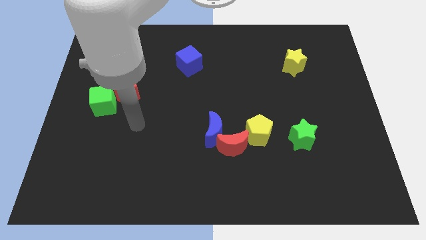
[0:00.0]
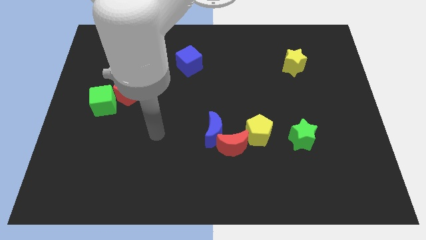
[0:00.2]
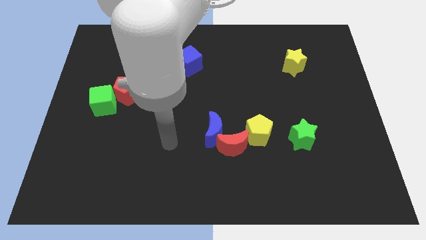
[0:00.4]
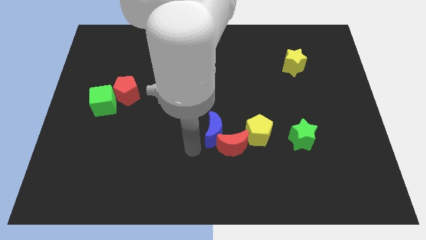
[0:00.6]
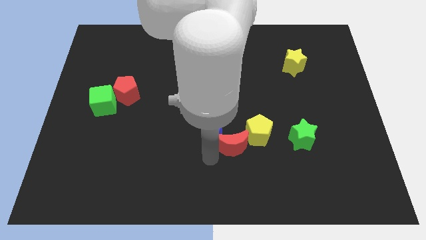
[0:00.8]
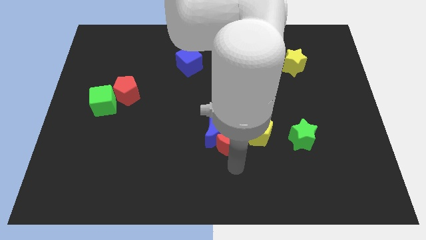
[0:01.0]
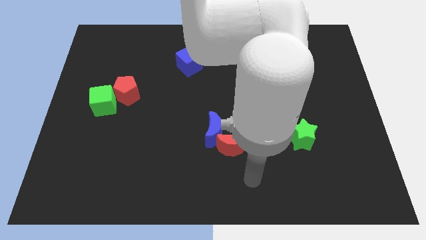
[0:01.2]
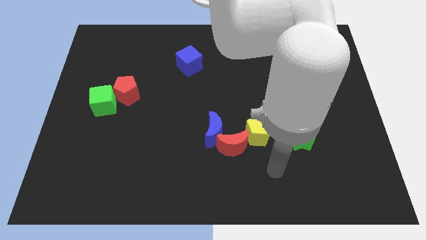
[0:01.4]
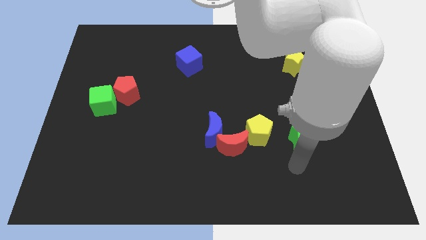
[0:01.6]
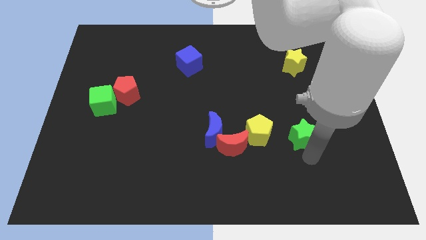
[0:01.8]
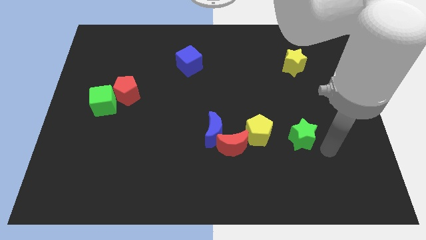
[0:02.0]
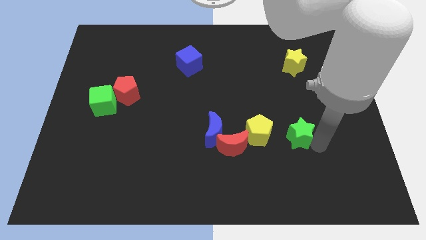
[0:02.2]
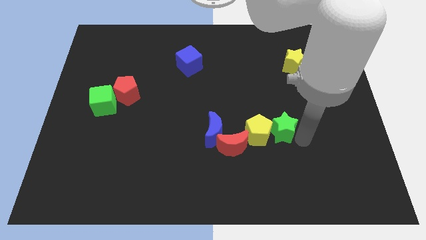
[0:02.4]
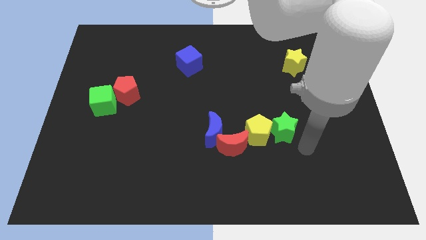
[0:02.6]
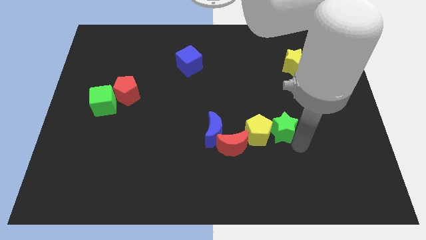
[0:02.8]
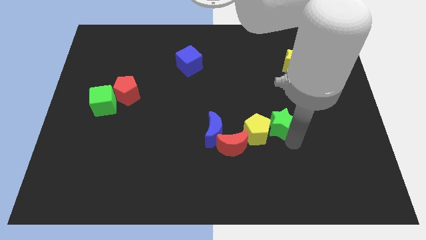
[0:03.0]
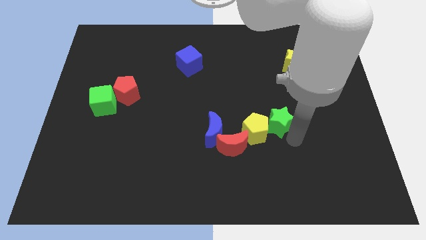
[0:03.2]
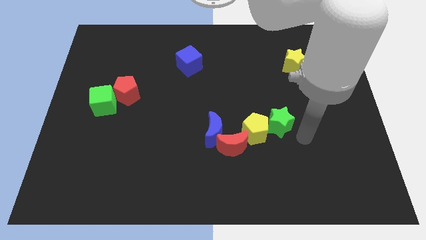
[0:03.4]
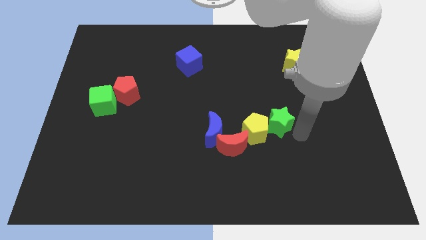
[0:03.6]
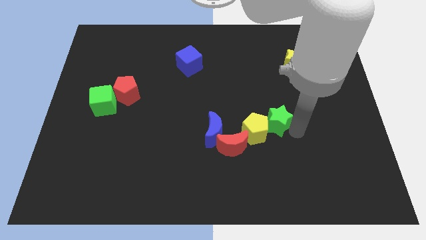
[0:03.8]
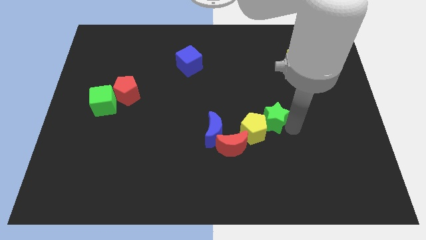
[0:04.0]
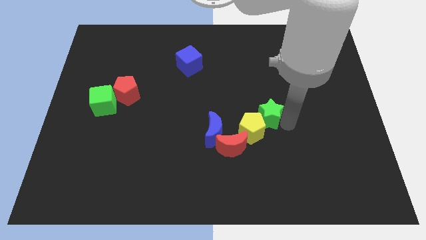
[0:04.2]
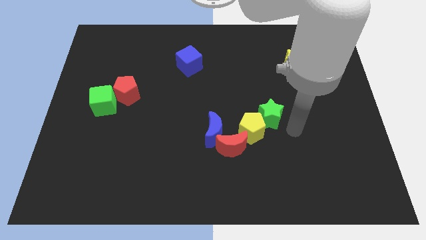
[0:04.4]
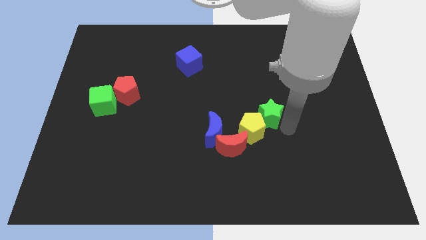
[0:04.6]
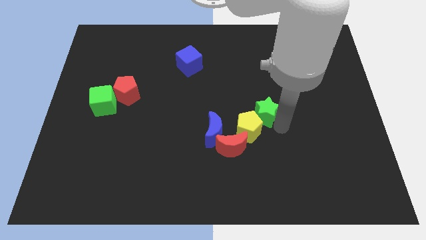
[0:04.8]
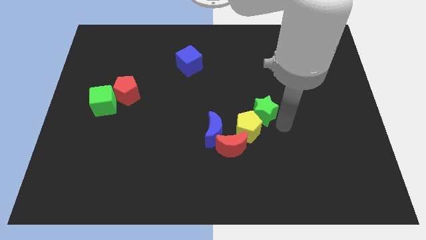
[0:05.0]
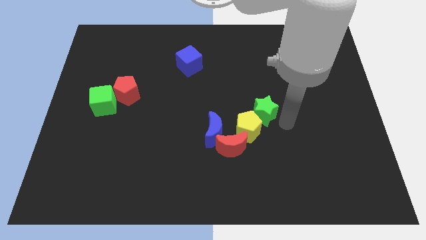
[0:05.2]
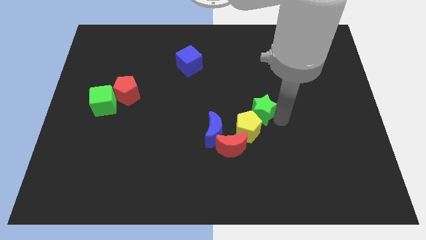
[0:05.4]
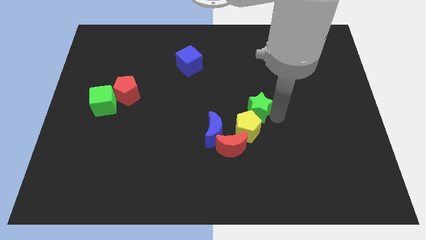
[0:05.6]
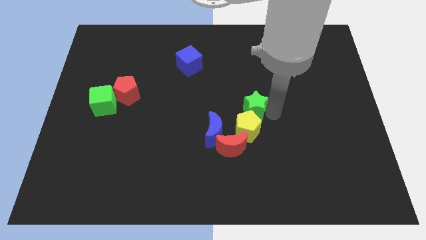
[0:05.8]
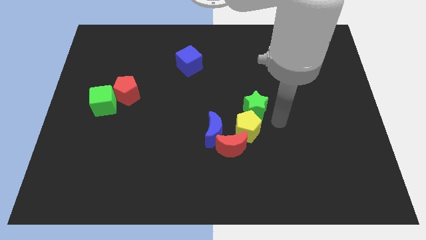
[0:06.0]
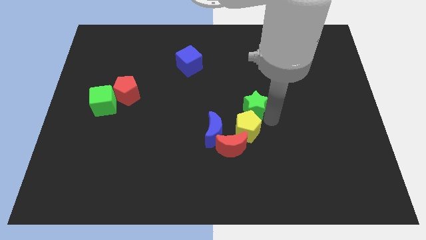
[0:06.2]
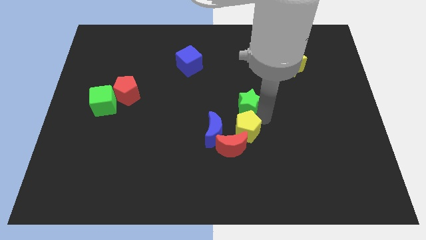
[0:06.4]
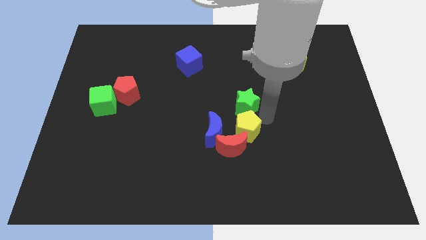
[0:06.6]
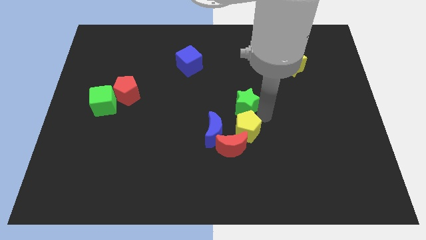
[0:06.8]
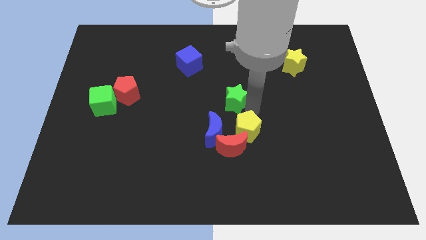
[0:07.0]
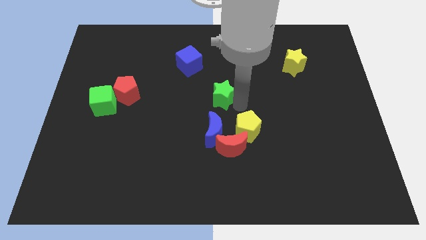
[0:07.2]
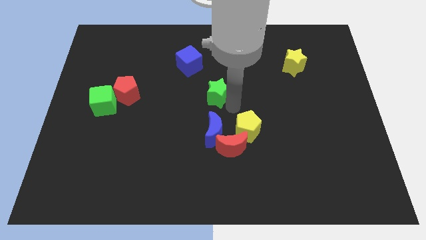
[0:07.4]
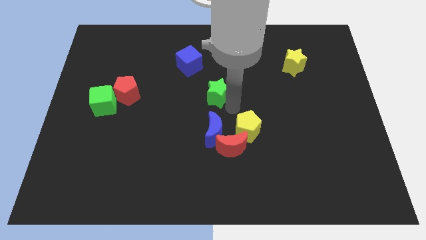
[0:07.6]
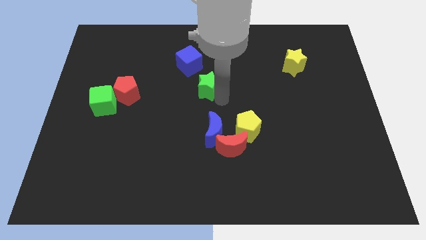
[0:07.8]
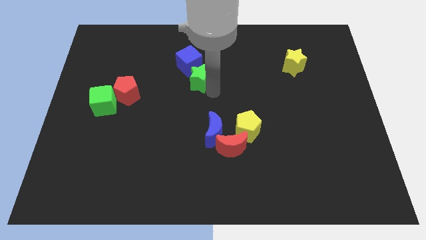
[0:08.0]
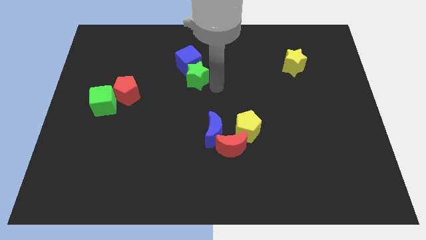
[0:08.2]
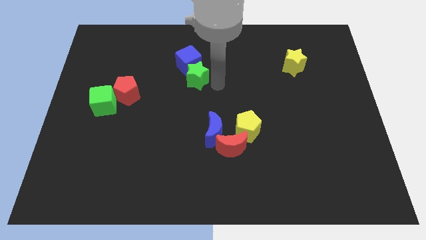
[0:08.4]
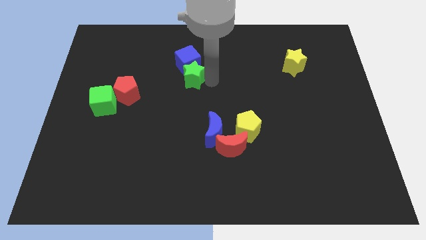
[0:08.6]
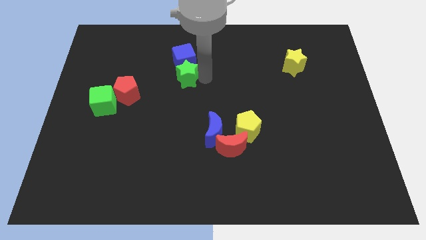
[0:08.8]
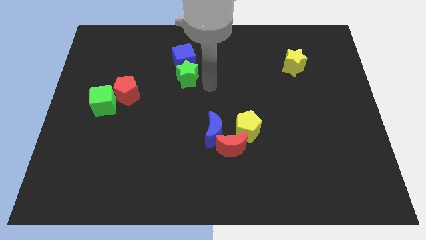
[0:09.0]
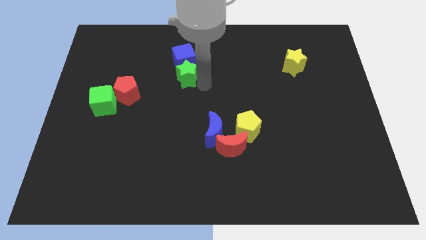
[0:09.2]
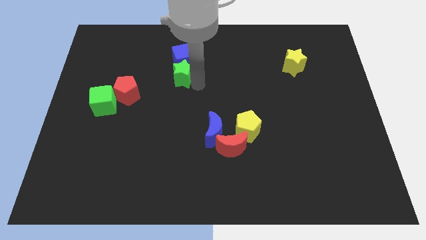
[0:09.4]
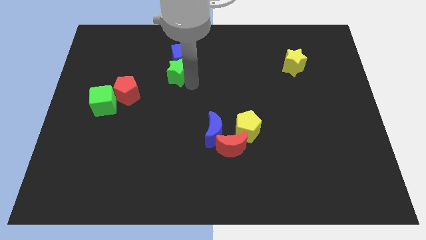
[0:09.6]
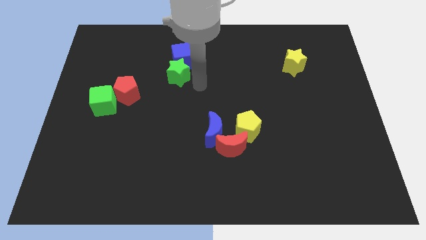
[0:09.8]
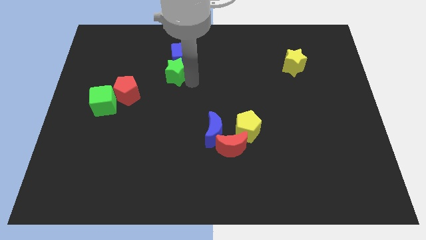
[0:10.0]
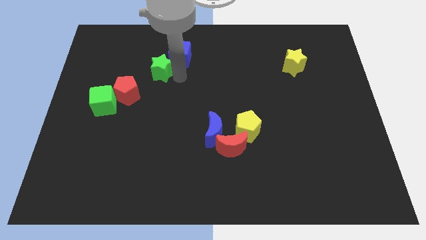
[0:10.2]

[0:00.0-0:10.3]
slide the green star just left of the blue cube

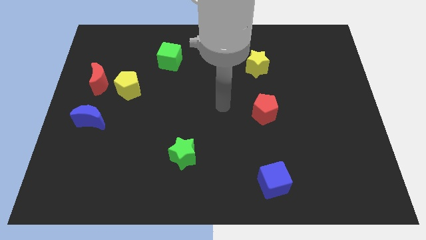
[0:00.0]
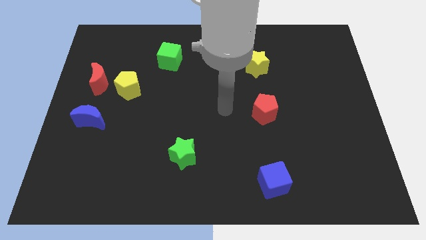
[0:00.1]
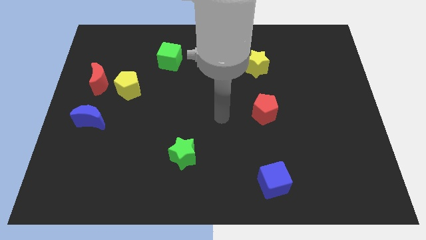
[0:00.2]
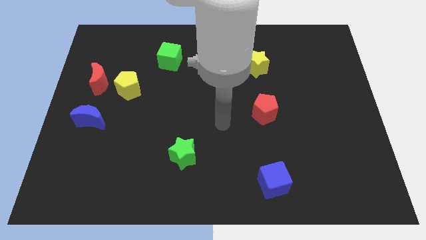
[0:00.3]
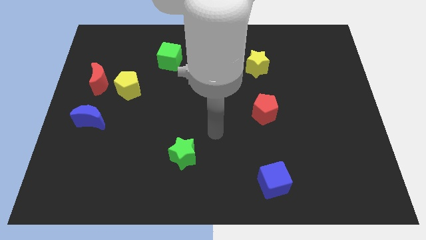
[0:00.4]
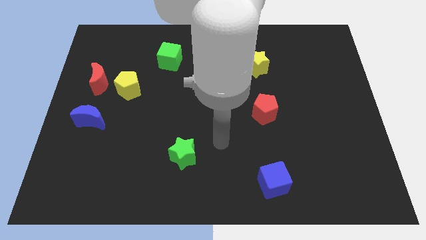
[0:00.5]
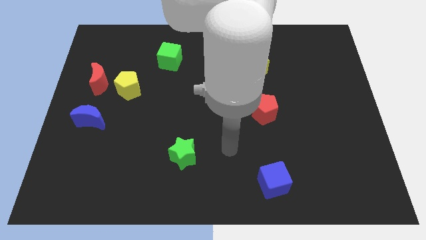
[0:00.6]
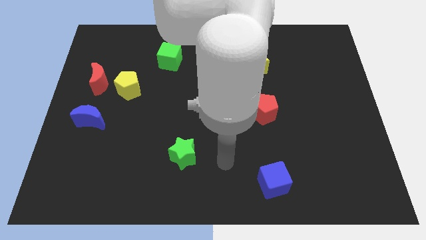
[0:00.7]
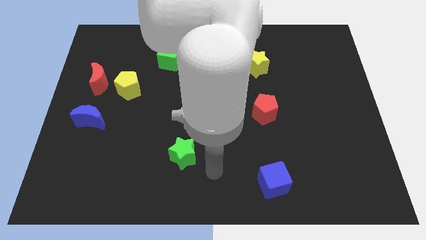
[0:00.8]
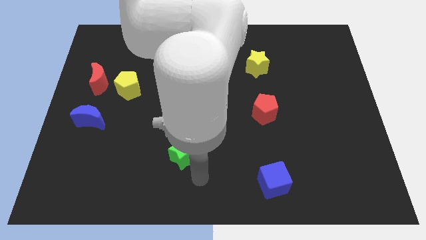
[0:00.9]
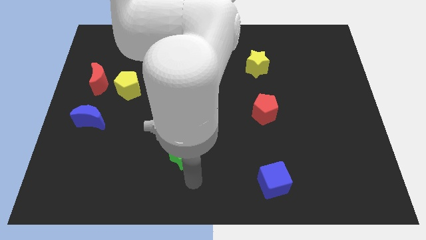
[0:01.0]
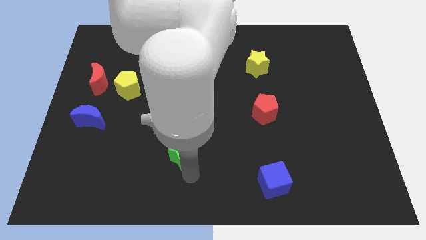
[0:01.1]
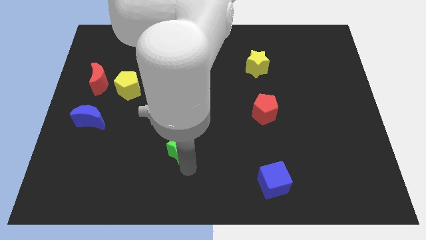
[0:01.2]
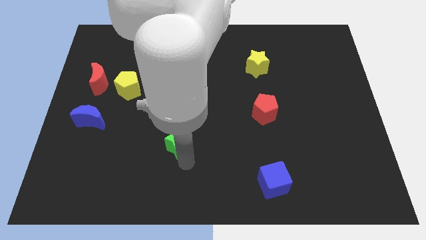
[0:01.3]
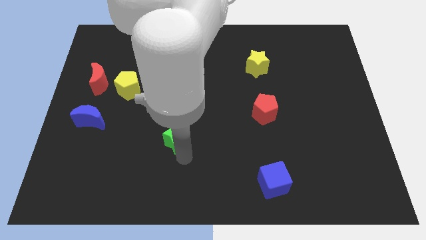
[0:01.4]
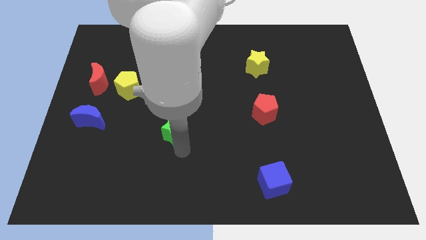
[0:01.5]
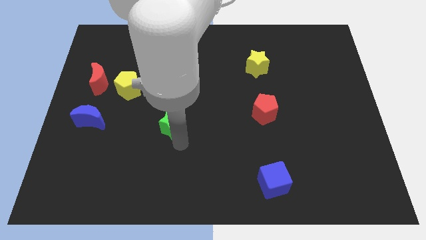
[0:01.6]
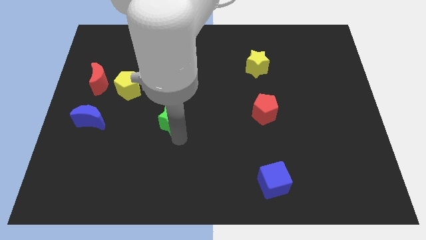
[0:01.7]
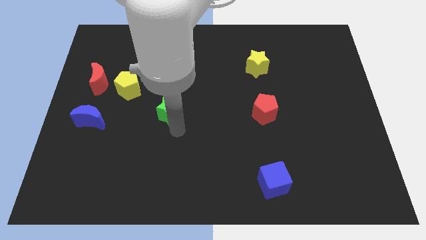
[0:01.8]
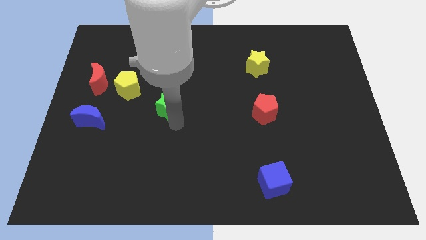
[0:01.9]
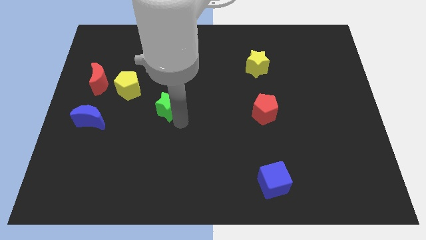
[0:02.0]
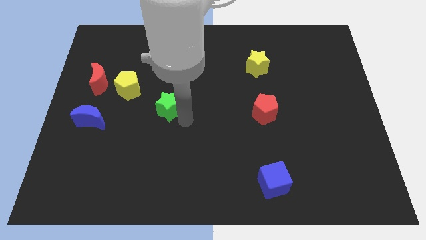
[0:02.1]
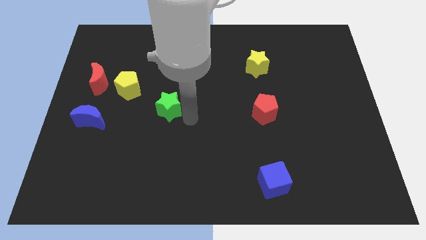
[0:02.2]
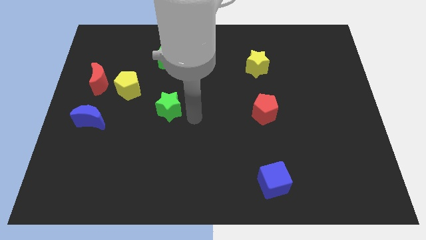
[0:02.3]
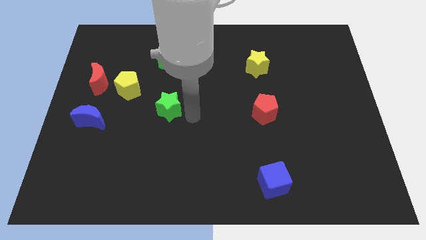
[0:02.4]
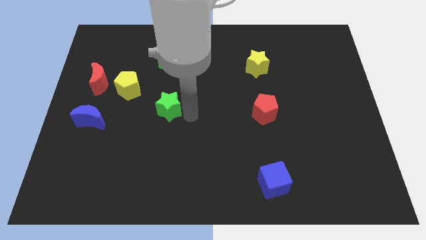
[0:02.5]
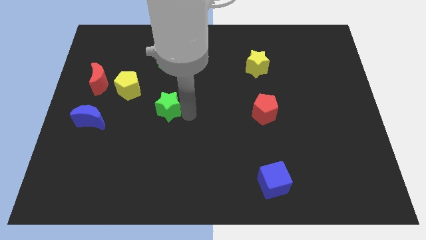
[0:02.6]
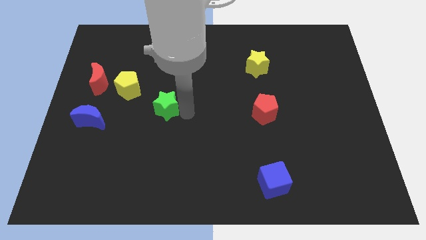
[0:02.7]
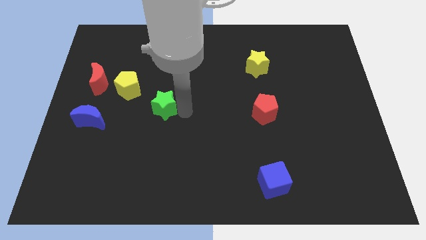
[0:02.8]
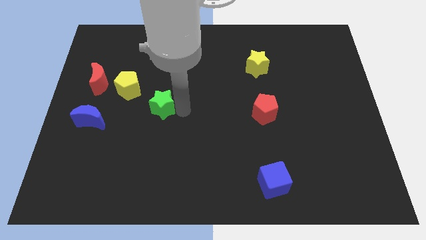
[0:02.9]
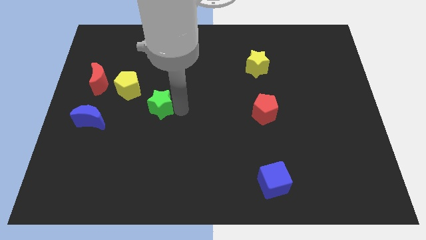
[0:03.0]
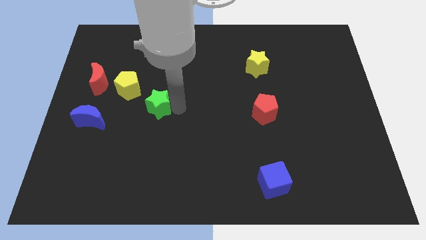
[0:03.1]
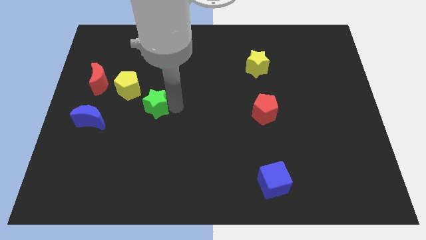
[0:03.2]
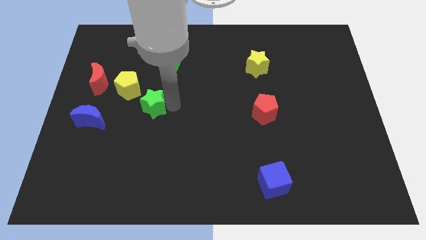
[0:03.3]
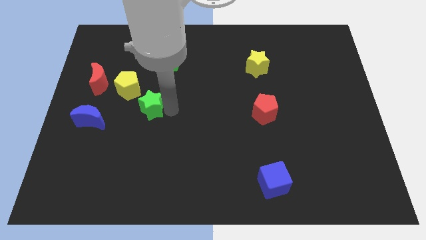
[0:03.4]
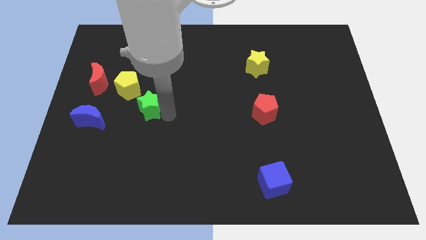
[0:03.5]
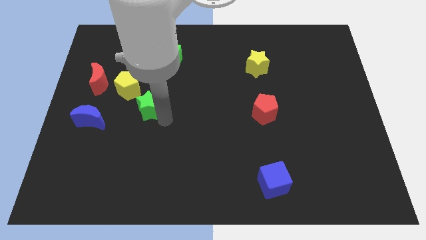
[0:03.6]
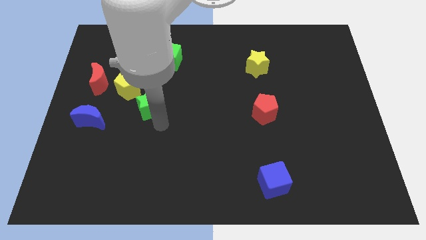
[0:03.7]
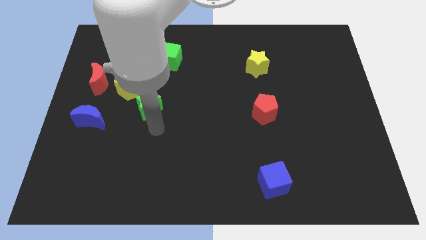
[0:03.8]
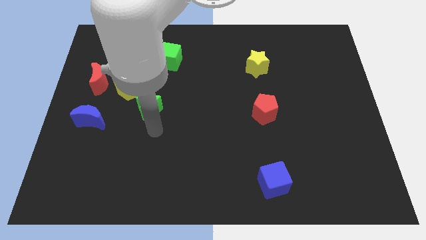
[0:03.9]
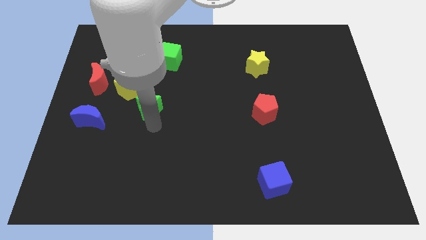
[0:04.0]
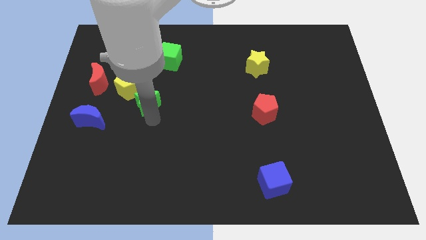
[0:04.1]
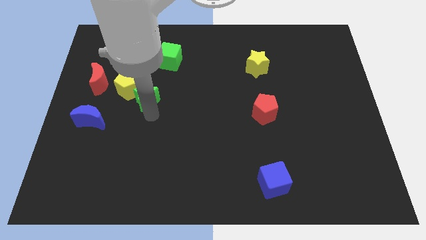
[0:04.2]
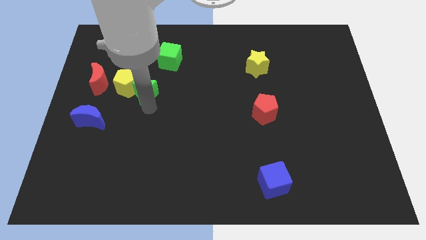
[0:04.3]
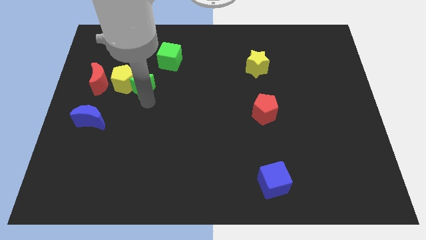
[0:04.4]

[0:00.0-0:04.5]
move the green star to the bottom left of the green cube
